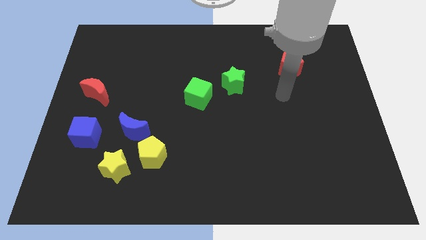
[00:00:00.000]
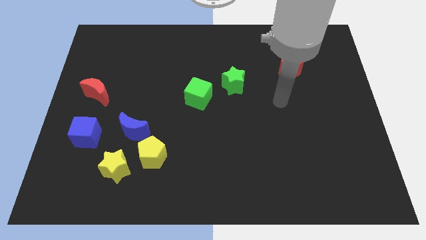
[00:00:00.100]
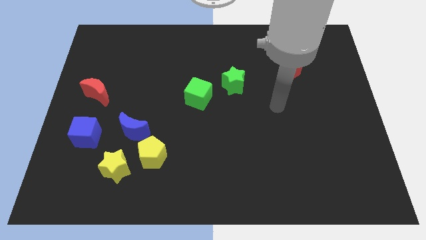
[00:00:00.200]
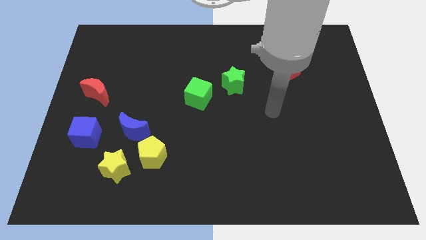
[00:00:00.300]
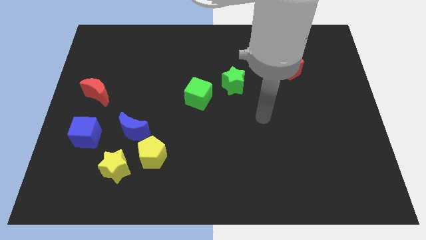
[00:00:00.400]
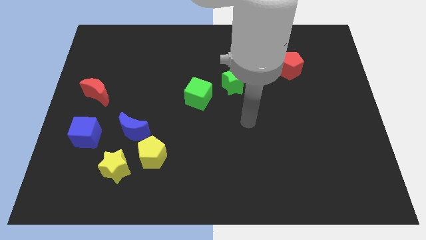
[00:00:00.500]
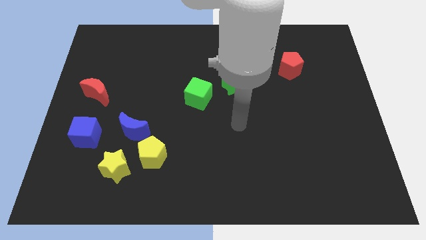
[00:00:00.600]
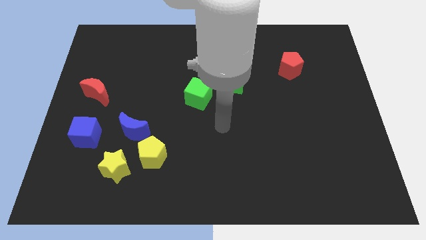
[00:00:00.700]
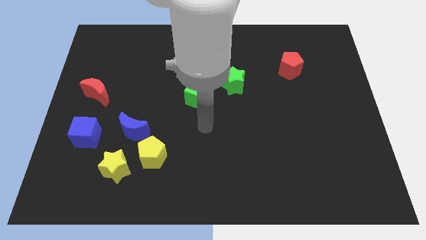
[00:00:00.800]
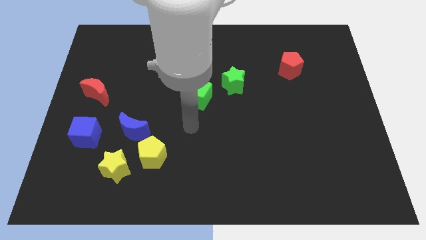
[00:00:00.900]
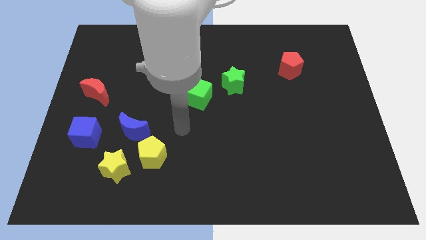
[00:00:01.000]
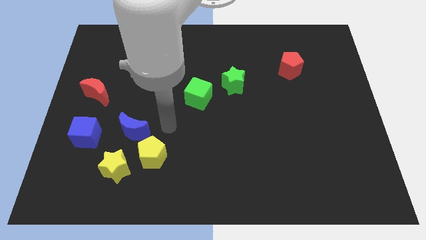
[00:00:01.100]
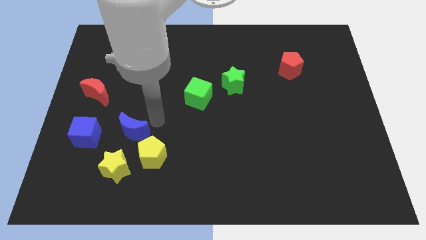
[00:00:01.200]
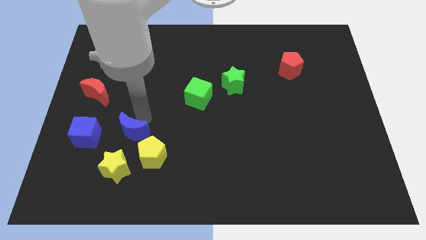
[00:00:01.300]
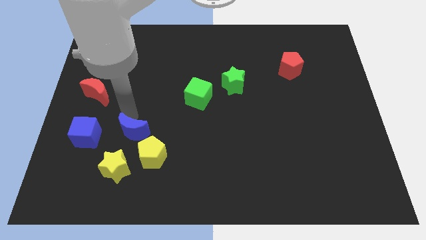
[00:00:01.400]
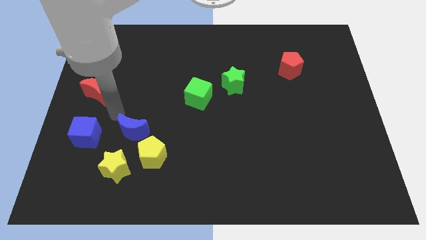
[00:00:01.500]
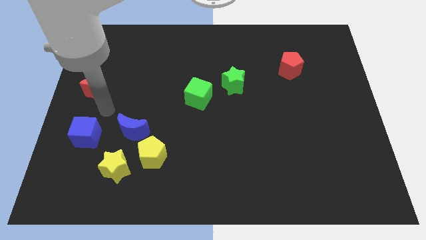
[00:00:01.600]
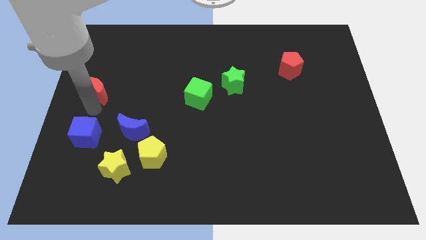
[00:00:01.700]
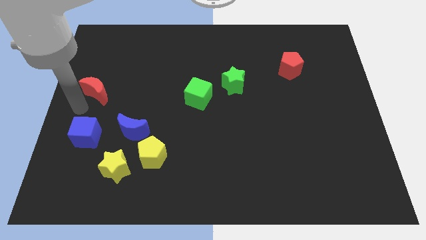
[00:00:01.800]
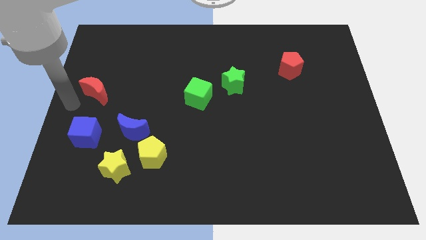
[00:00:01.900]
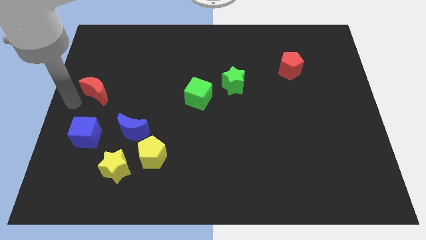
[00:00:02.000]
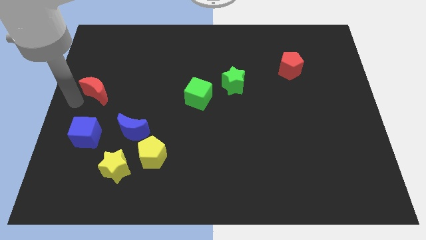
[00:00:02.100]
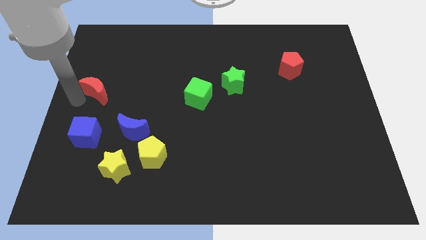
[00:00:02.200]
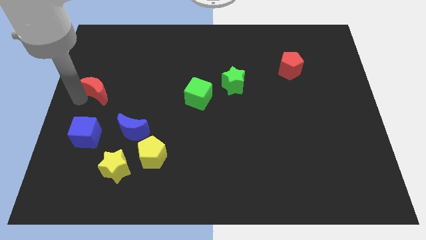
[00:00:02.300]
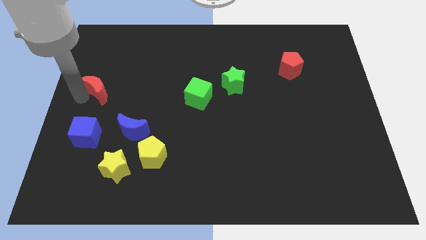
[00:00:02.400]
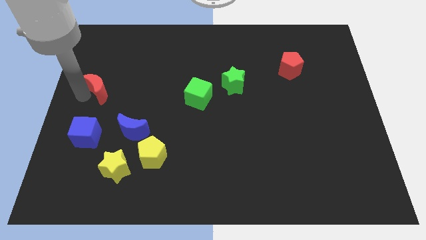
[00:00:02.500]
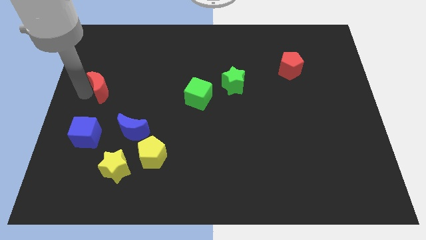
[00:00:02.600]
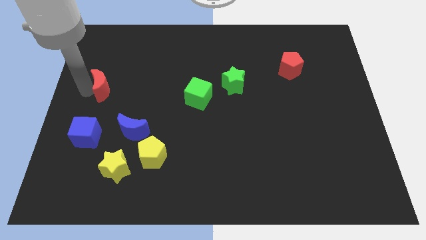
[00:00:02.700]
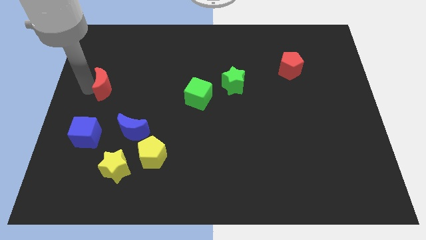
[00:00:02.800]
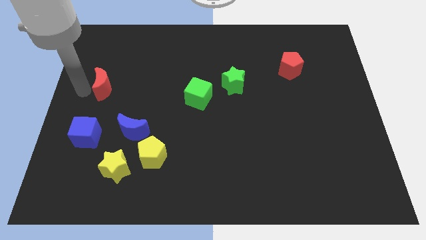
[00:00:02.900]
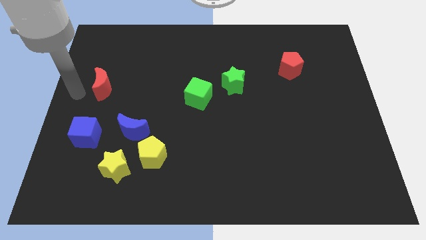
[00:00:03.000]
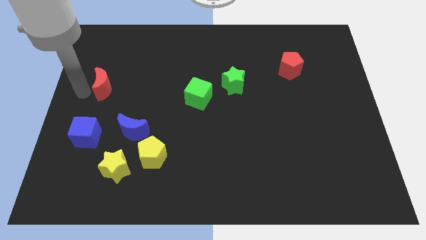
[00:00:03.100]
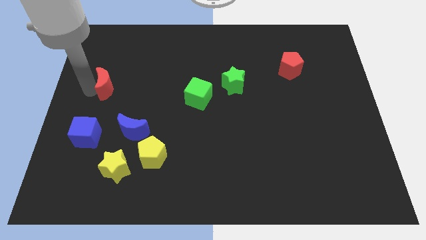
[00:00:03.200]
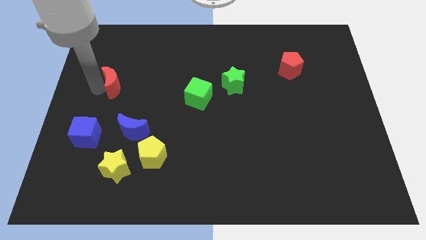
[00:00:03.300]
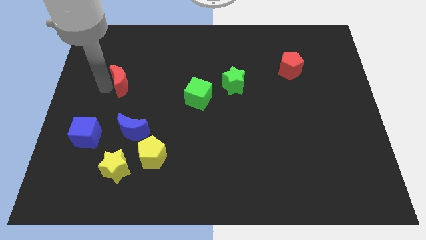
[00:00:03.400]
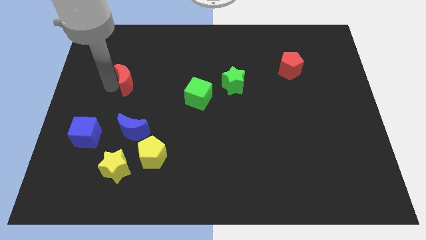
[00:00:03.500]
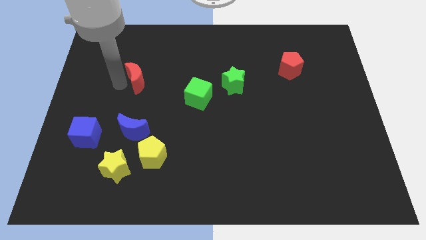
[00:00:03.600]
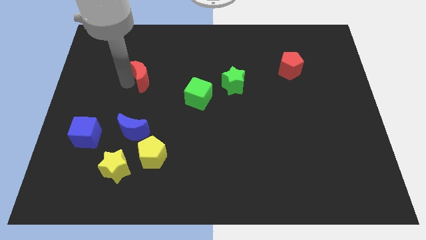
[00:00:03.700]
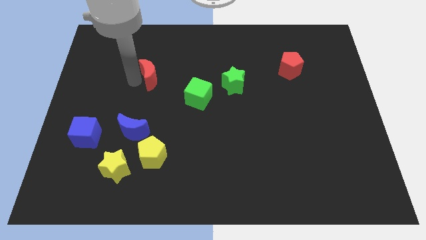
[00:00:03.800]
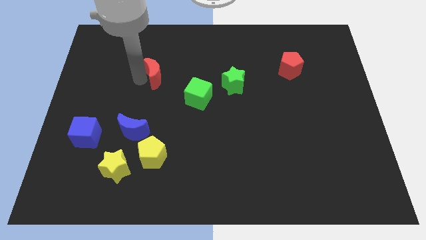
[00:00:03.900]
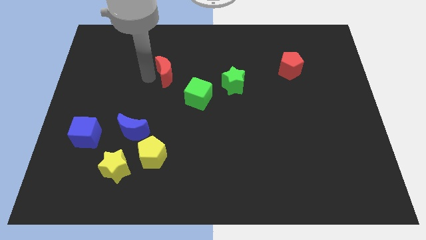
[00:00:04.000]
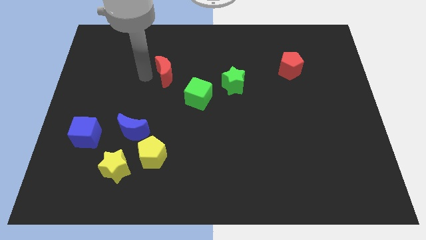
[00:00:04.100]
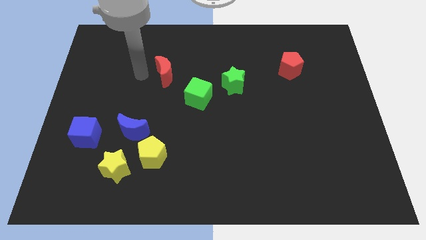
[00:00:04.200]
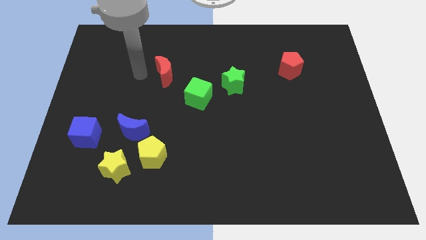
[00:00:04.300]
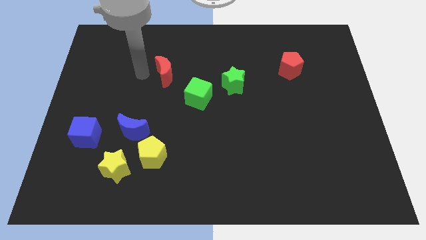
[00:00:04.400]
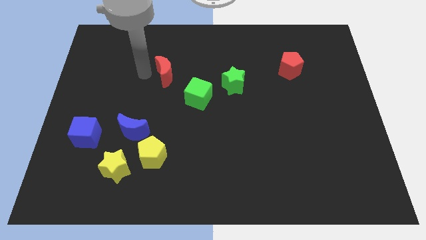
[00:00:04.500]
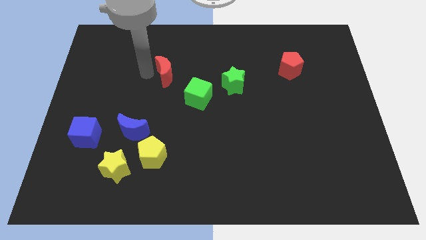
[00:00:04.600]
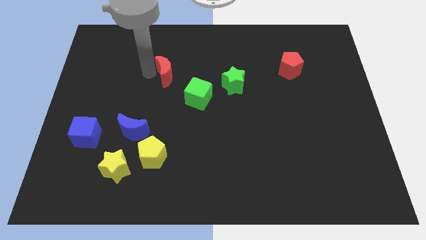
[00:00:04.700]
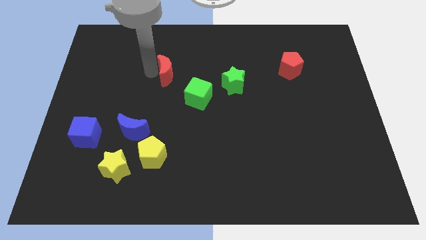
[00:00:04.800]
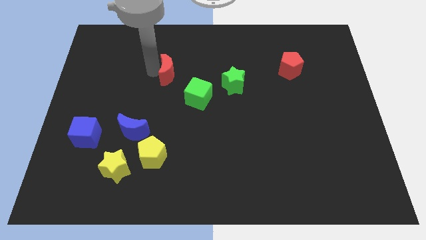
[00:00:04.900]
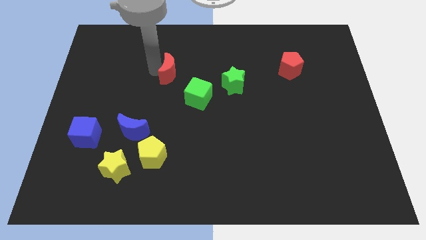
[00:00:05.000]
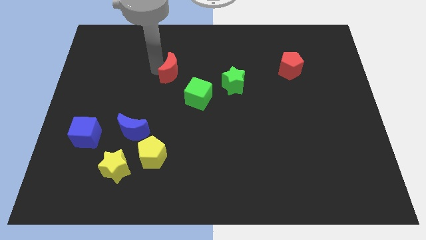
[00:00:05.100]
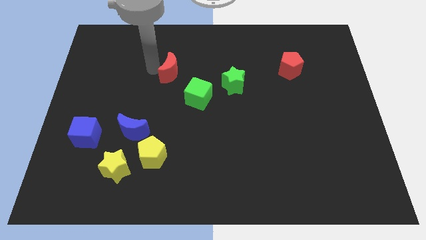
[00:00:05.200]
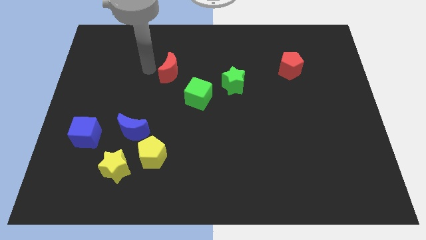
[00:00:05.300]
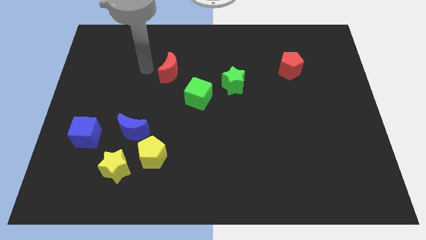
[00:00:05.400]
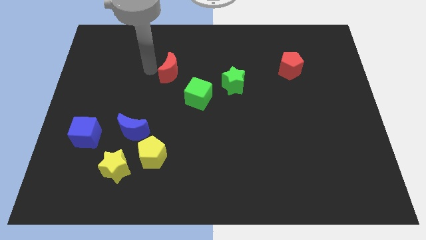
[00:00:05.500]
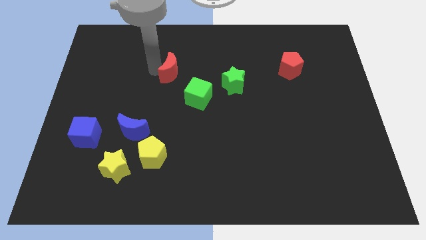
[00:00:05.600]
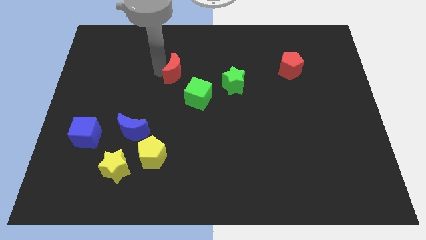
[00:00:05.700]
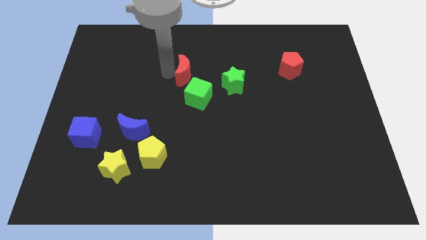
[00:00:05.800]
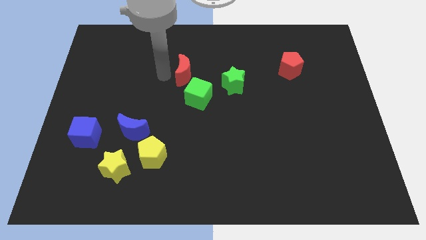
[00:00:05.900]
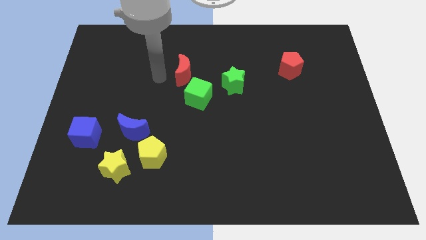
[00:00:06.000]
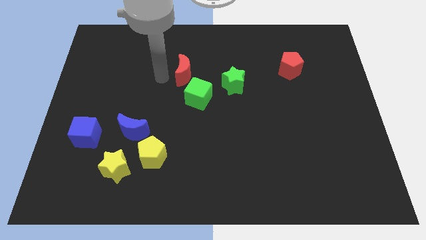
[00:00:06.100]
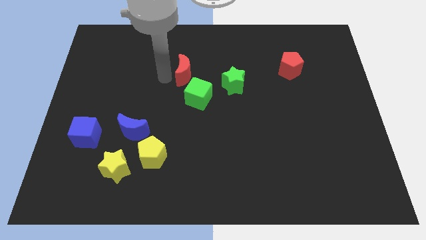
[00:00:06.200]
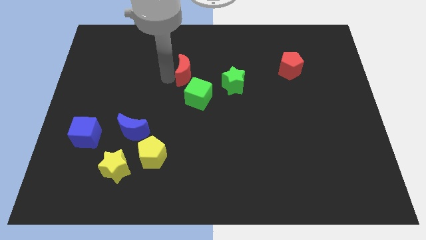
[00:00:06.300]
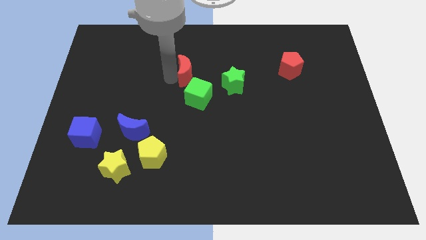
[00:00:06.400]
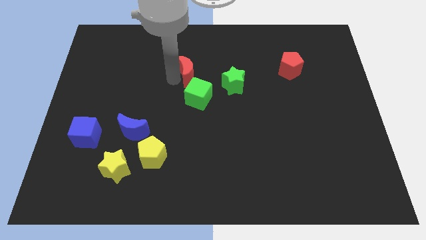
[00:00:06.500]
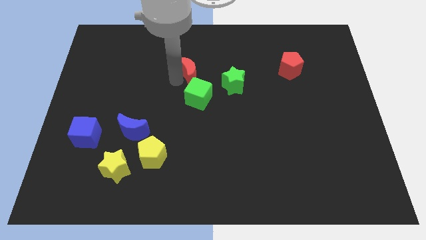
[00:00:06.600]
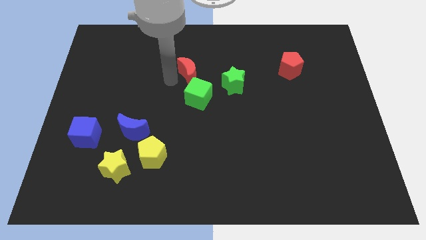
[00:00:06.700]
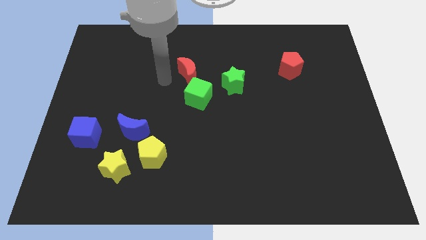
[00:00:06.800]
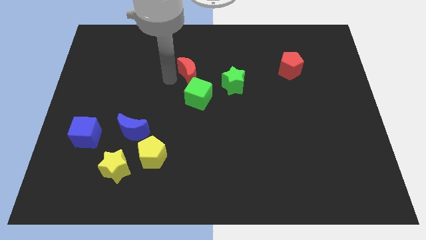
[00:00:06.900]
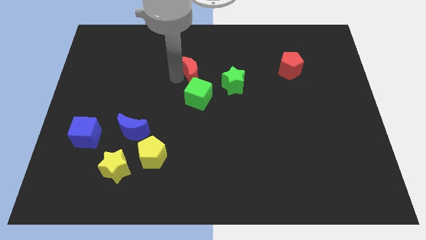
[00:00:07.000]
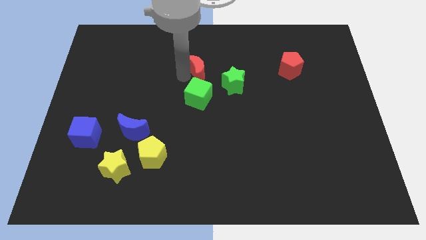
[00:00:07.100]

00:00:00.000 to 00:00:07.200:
push the red moon to the top left of the green star

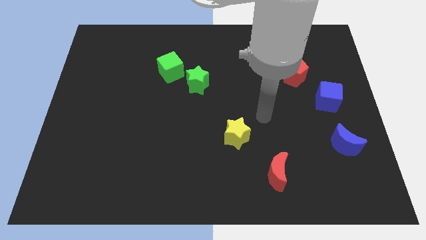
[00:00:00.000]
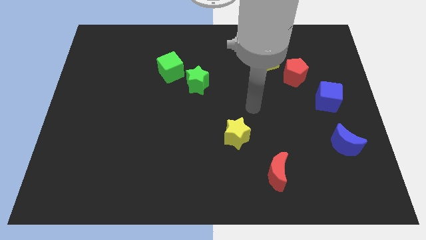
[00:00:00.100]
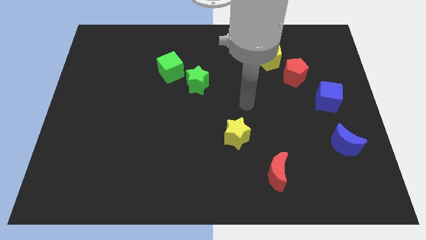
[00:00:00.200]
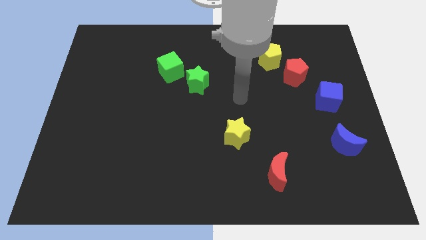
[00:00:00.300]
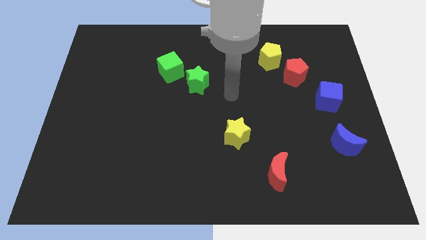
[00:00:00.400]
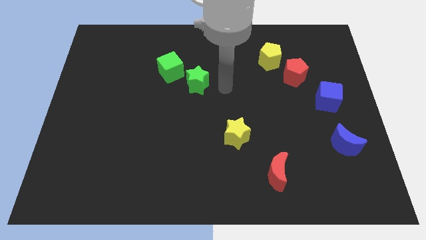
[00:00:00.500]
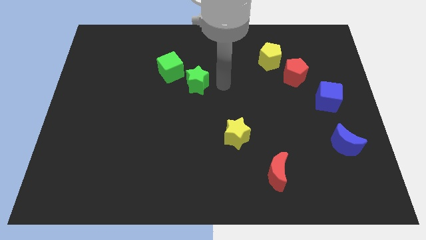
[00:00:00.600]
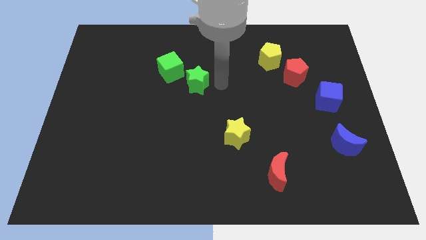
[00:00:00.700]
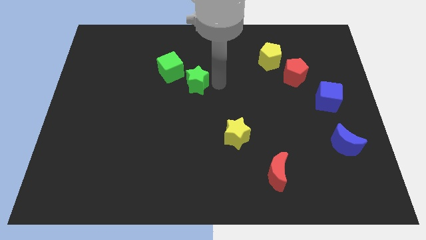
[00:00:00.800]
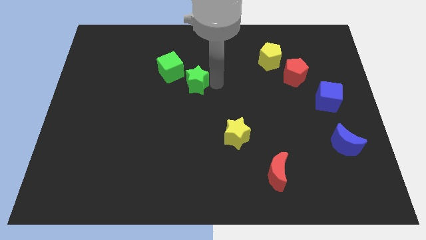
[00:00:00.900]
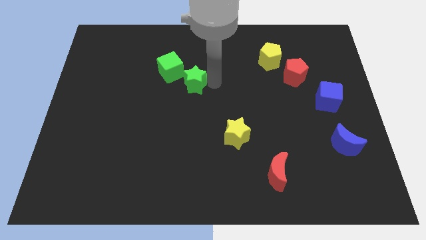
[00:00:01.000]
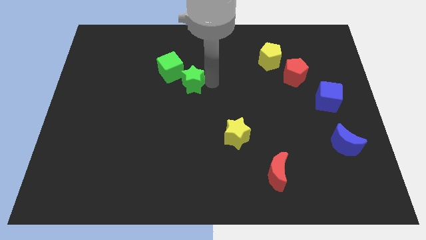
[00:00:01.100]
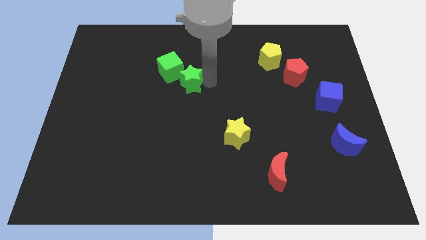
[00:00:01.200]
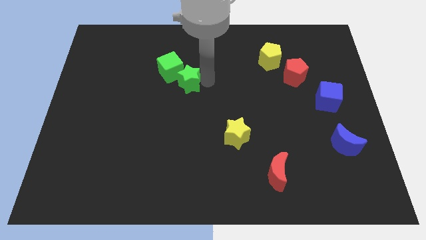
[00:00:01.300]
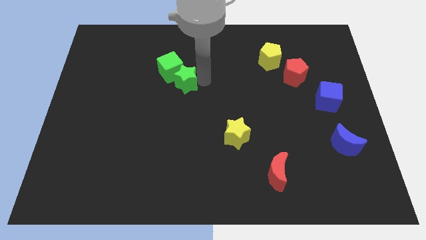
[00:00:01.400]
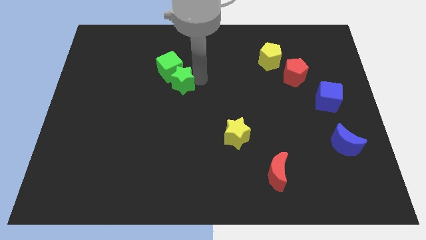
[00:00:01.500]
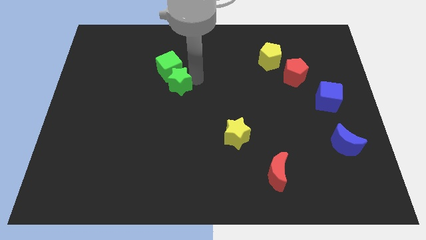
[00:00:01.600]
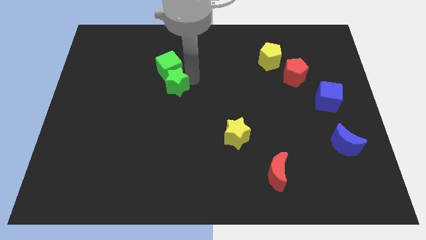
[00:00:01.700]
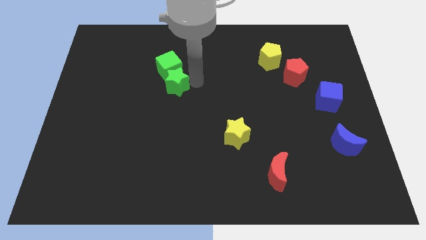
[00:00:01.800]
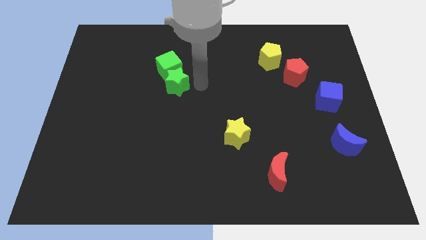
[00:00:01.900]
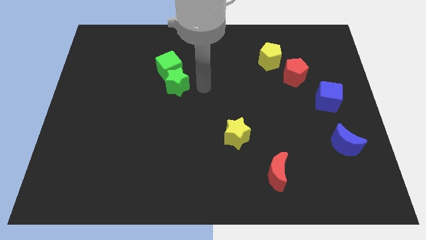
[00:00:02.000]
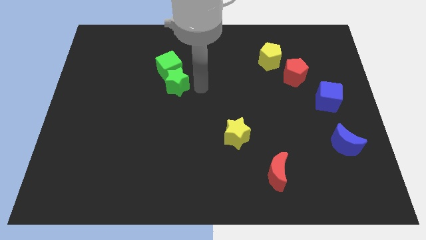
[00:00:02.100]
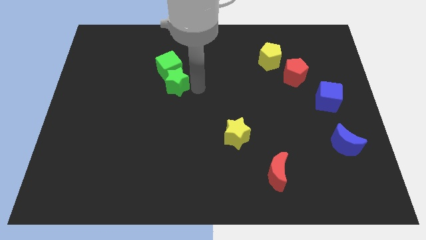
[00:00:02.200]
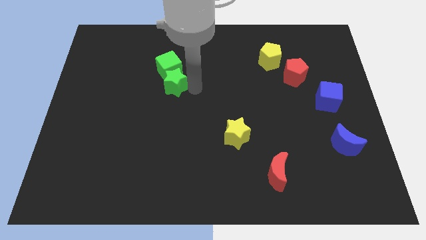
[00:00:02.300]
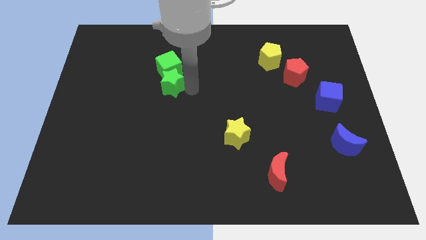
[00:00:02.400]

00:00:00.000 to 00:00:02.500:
slide the green star to the bottom left of the green cube
